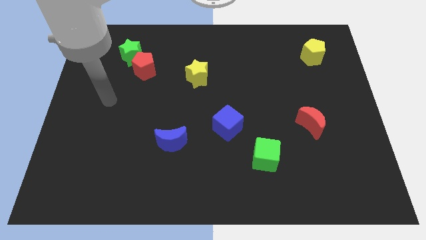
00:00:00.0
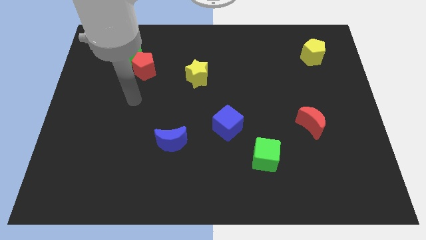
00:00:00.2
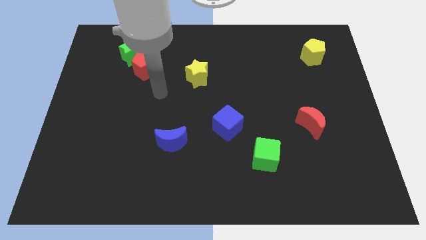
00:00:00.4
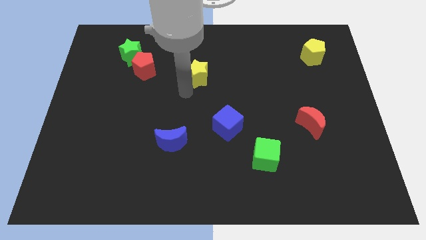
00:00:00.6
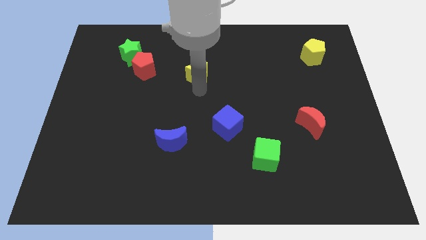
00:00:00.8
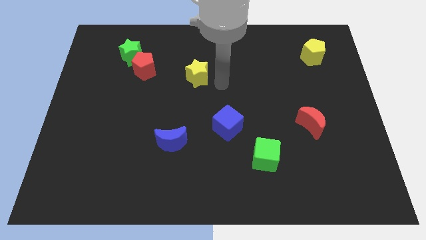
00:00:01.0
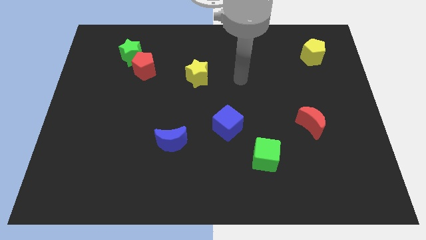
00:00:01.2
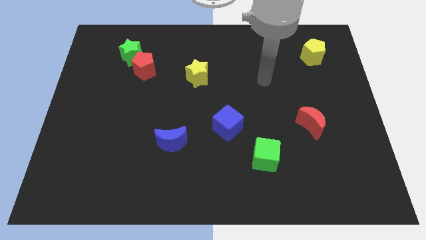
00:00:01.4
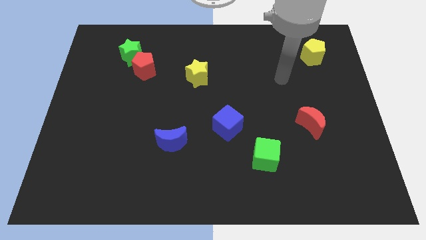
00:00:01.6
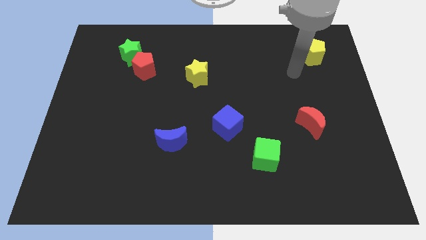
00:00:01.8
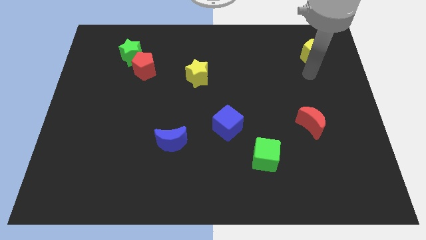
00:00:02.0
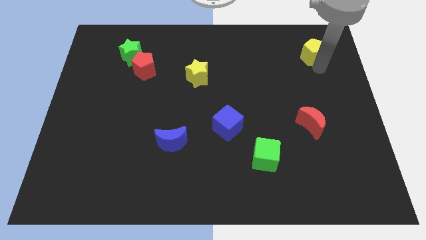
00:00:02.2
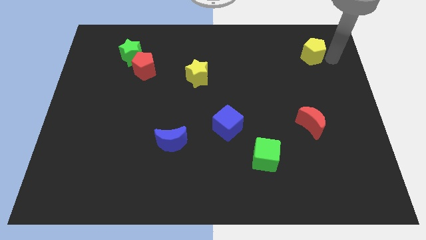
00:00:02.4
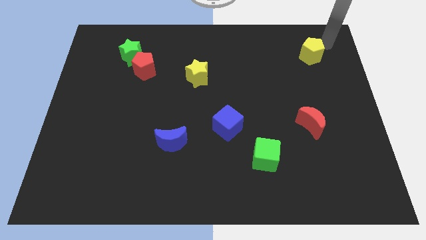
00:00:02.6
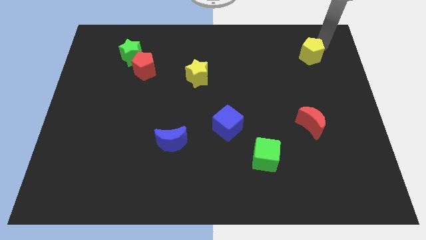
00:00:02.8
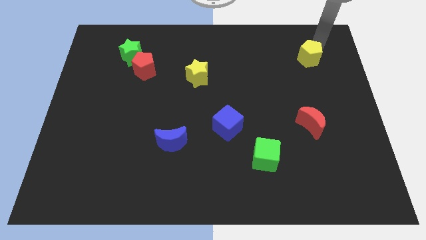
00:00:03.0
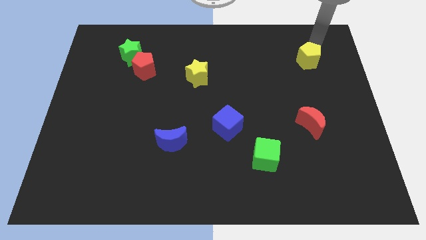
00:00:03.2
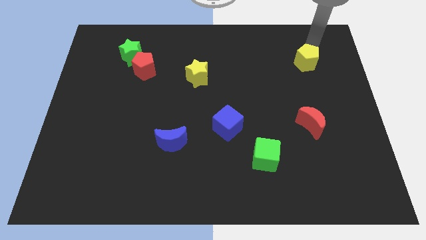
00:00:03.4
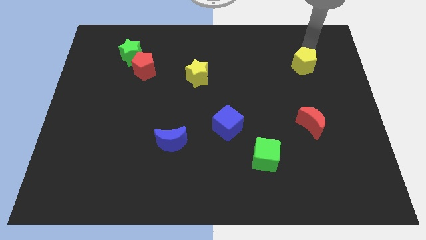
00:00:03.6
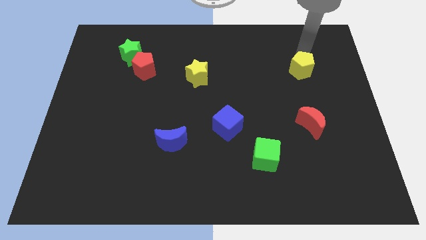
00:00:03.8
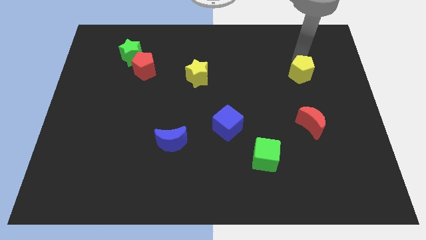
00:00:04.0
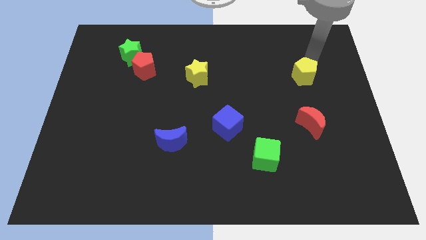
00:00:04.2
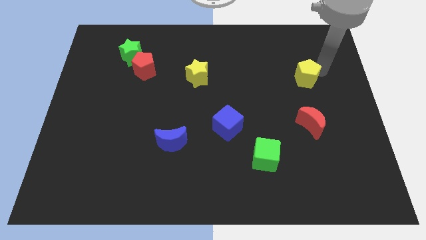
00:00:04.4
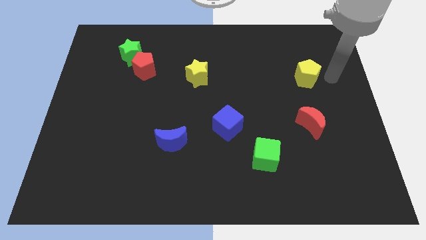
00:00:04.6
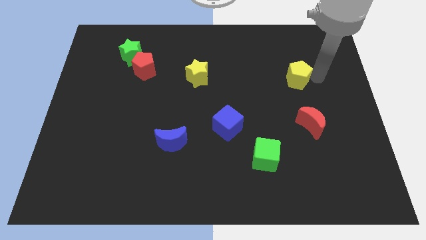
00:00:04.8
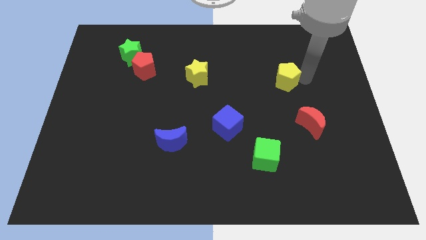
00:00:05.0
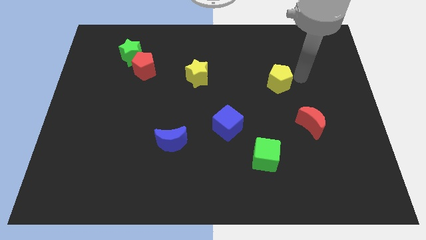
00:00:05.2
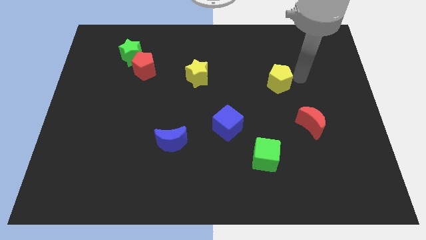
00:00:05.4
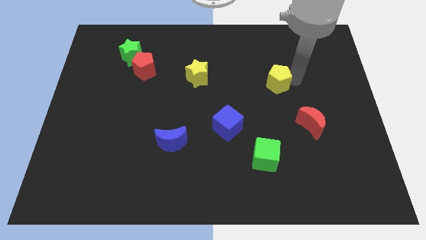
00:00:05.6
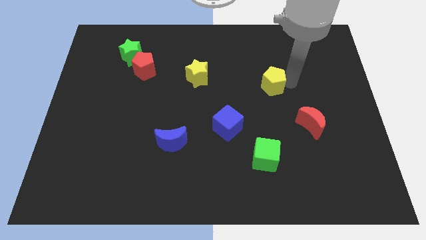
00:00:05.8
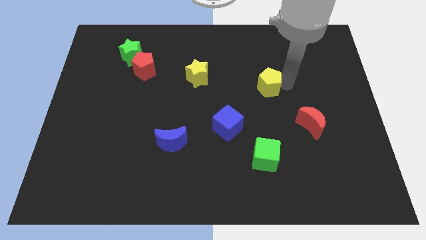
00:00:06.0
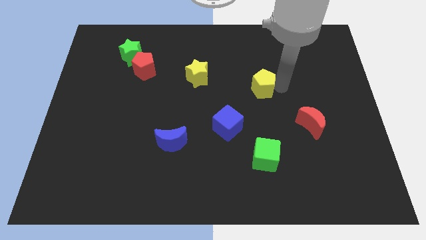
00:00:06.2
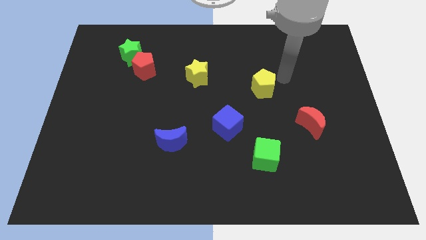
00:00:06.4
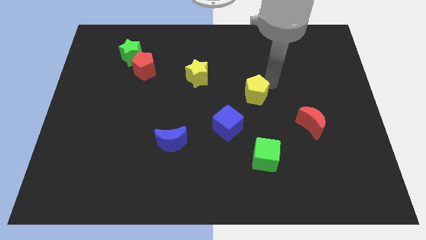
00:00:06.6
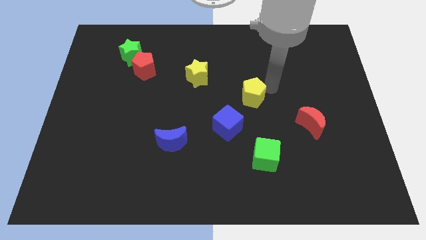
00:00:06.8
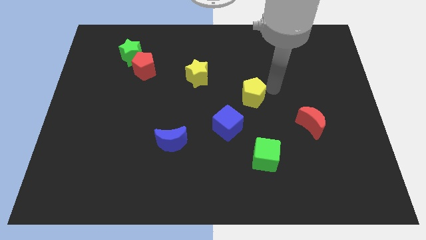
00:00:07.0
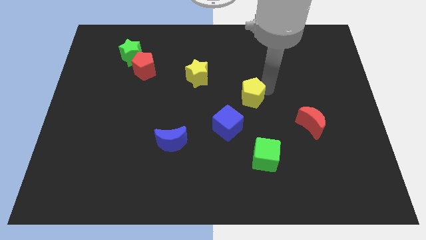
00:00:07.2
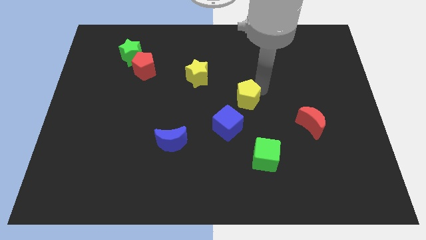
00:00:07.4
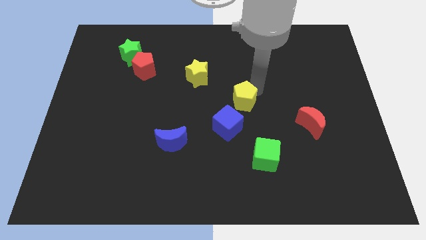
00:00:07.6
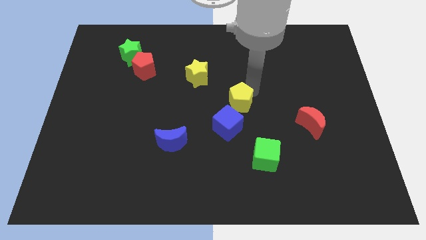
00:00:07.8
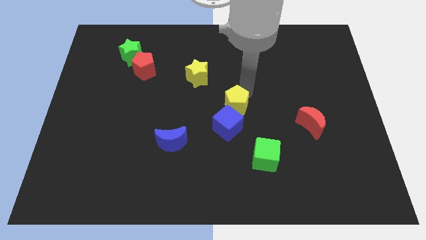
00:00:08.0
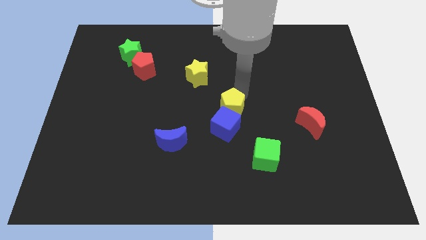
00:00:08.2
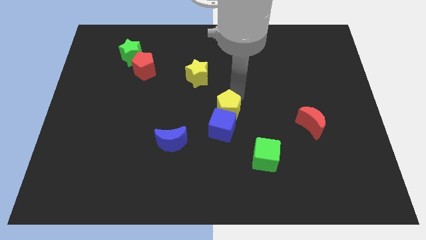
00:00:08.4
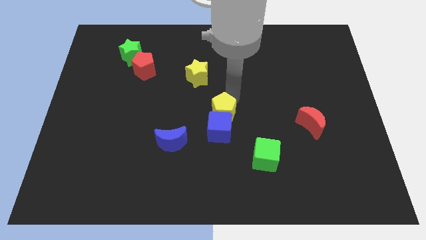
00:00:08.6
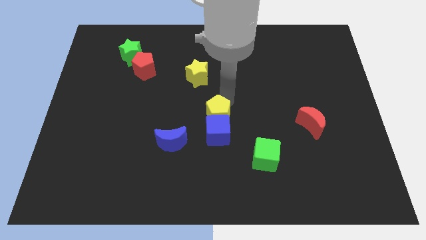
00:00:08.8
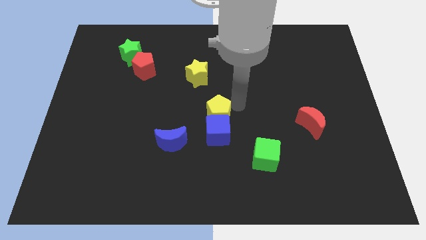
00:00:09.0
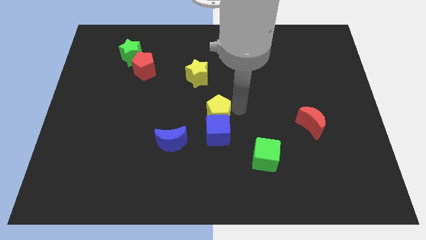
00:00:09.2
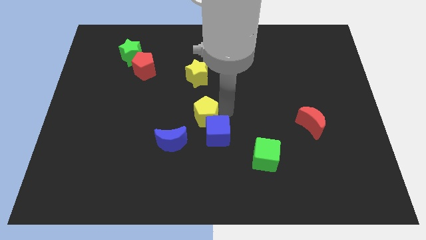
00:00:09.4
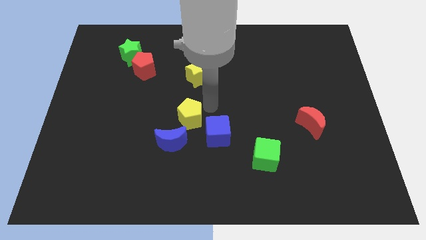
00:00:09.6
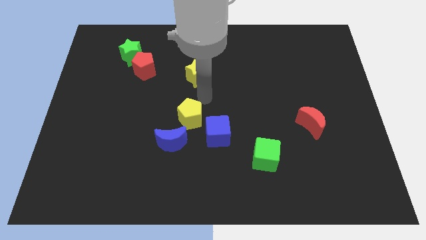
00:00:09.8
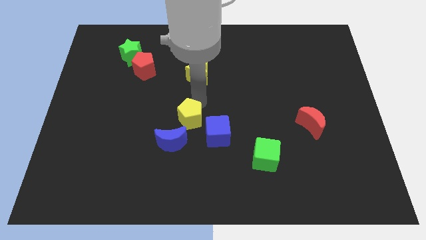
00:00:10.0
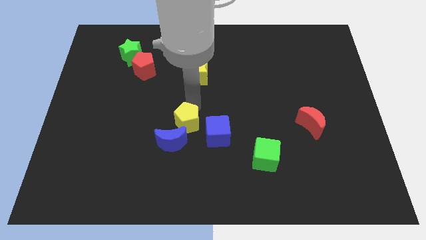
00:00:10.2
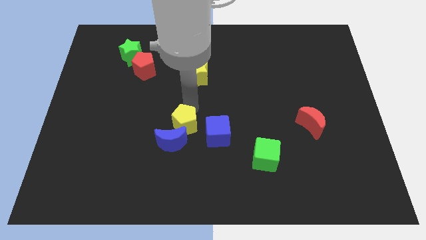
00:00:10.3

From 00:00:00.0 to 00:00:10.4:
move the yellow pentagon next to the blue moon

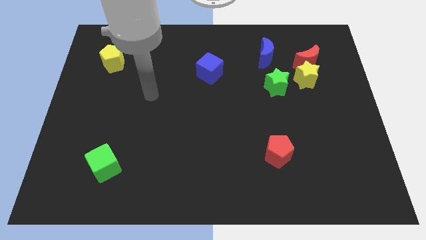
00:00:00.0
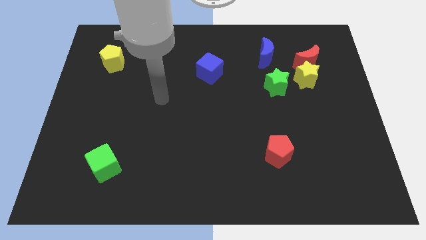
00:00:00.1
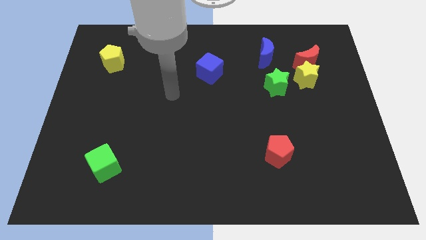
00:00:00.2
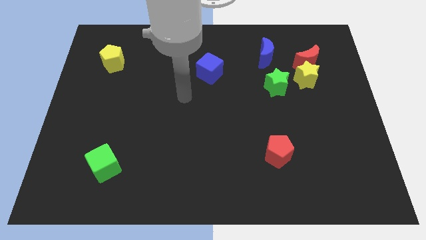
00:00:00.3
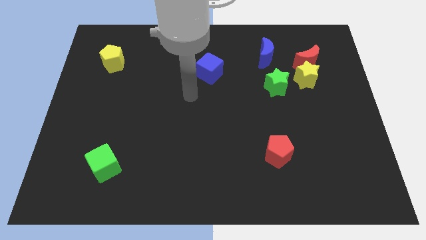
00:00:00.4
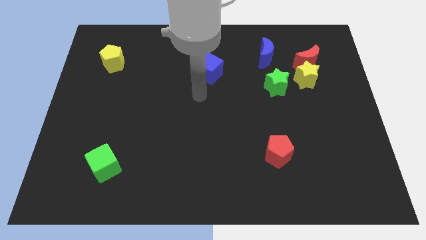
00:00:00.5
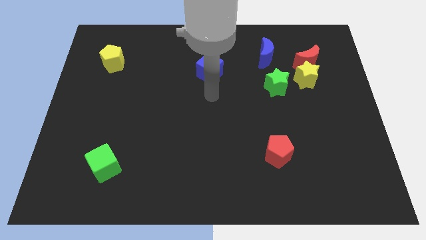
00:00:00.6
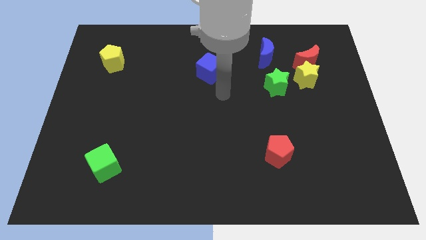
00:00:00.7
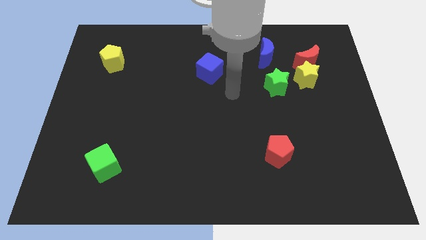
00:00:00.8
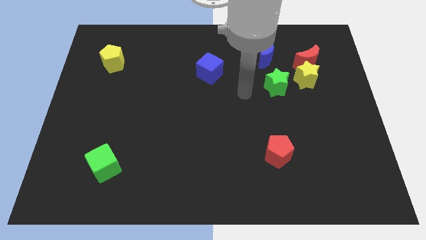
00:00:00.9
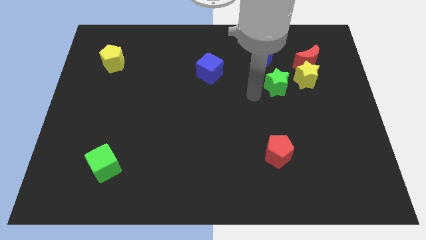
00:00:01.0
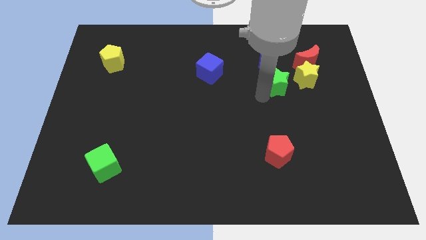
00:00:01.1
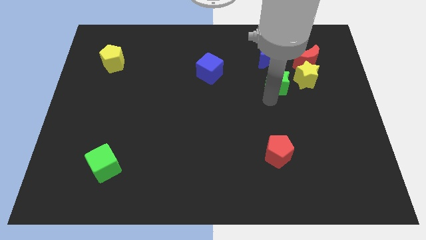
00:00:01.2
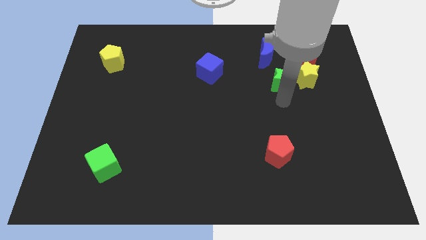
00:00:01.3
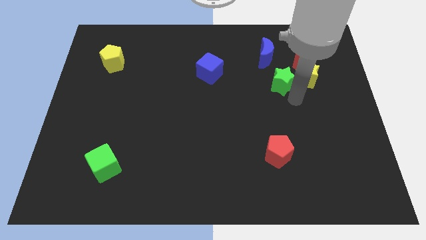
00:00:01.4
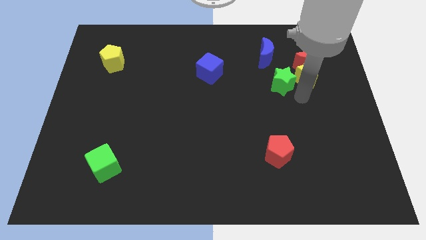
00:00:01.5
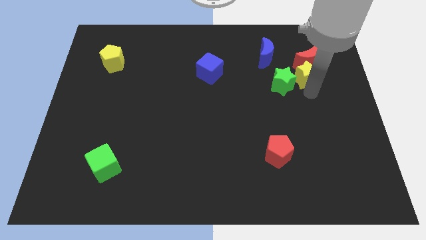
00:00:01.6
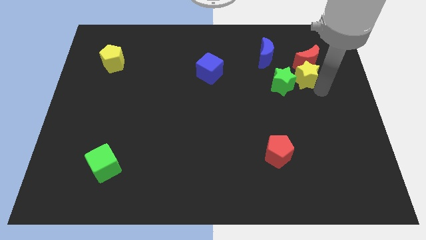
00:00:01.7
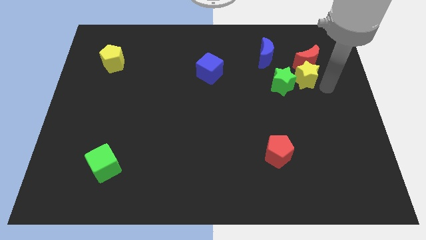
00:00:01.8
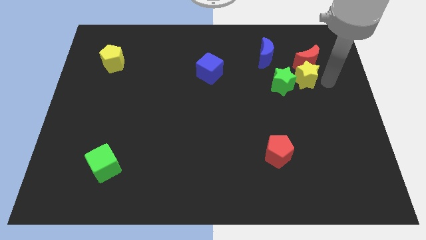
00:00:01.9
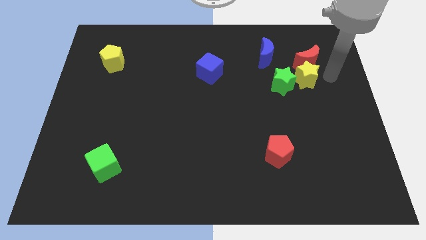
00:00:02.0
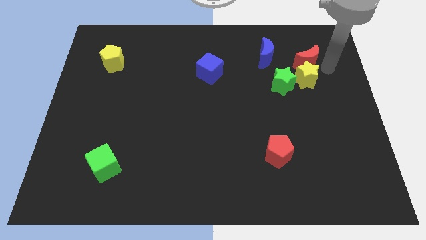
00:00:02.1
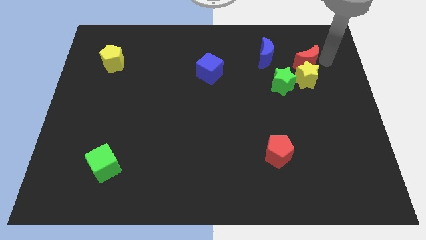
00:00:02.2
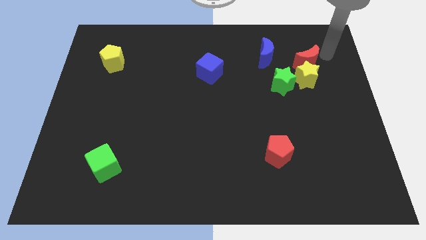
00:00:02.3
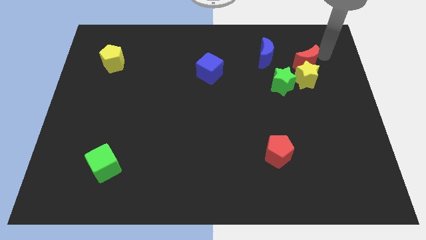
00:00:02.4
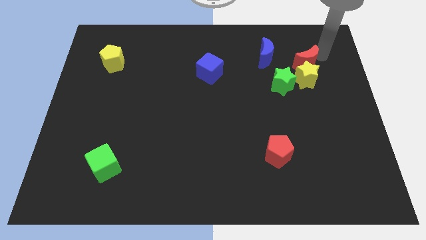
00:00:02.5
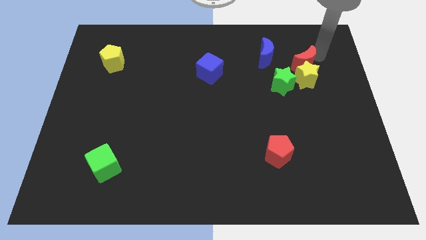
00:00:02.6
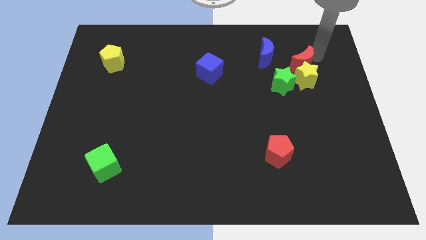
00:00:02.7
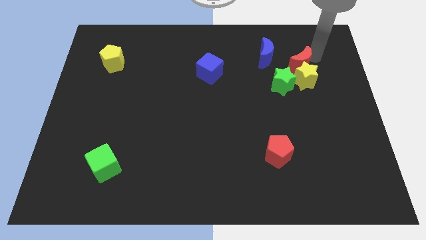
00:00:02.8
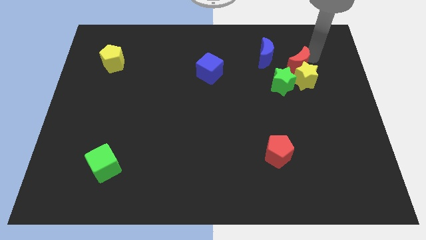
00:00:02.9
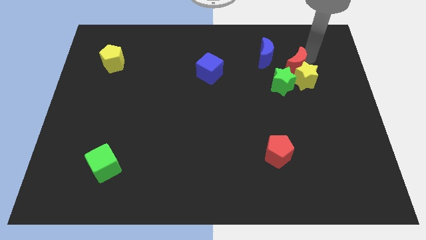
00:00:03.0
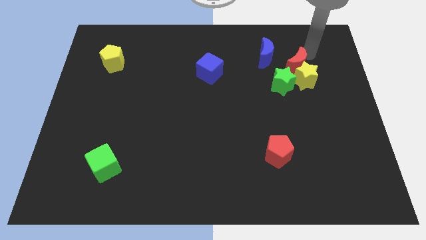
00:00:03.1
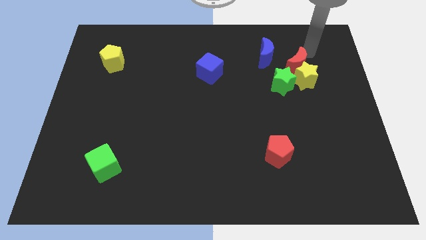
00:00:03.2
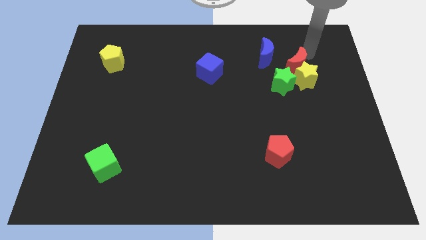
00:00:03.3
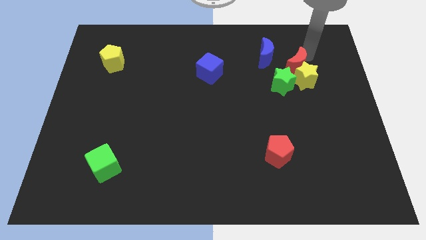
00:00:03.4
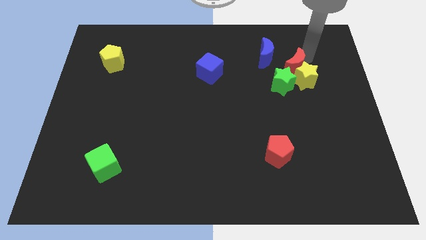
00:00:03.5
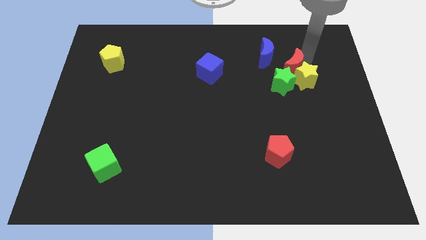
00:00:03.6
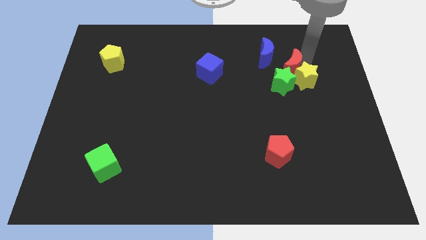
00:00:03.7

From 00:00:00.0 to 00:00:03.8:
move the red moon towards the green star
